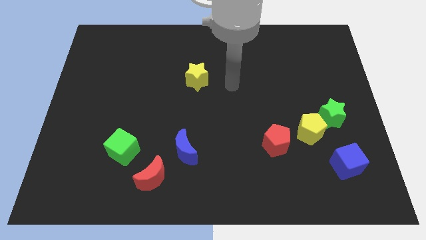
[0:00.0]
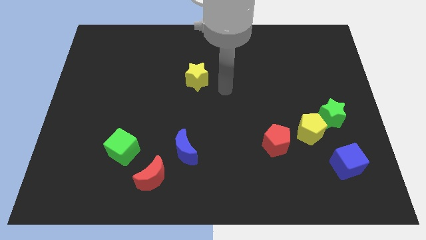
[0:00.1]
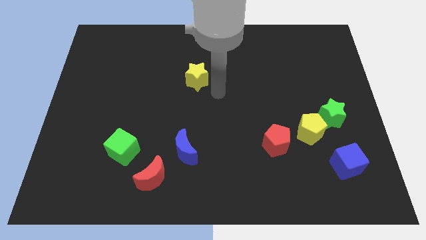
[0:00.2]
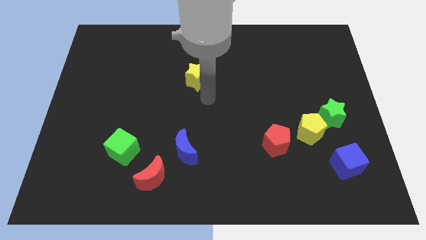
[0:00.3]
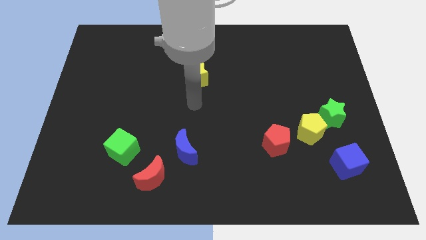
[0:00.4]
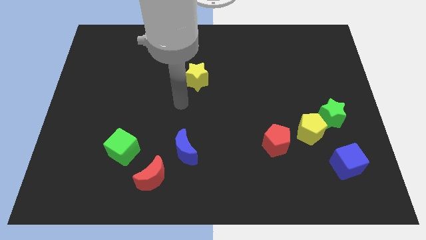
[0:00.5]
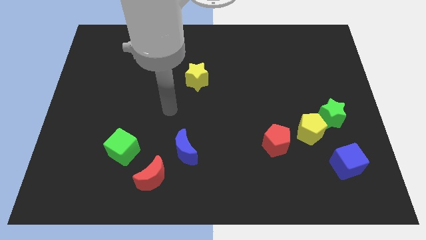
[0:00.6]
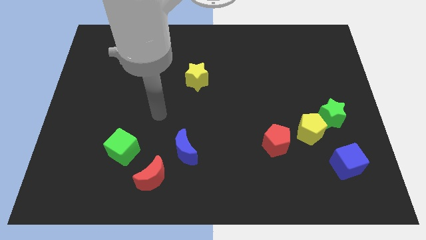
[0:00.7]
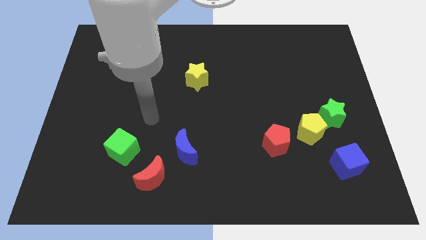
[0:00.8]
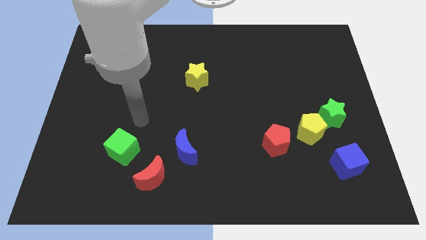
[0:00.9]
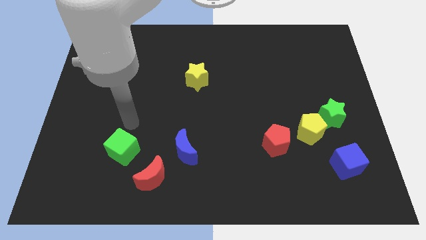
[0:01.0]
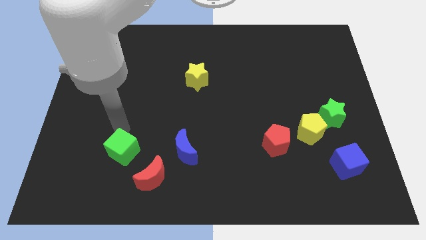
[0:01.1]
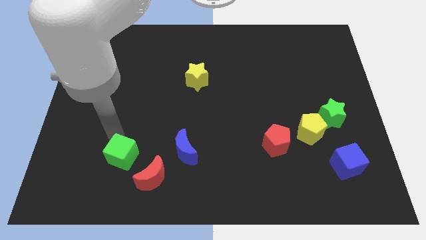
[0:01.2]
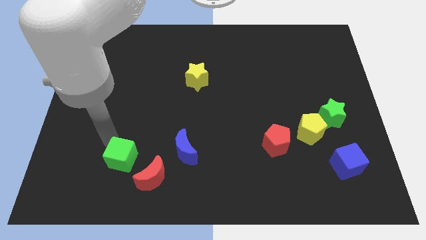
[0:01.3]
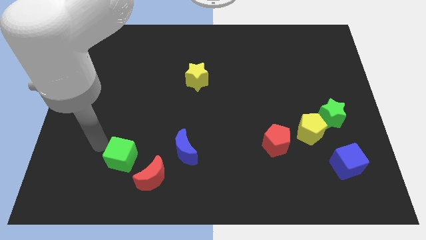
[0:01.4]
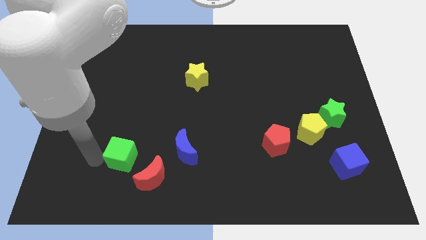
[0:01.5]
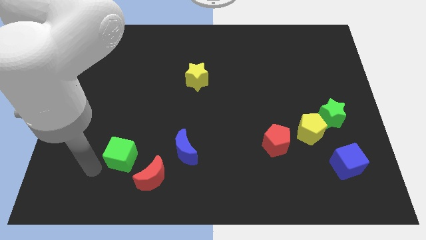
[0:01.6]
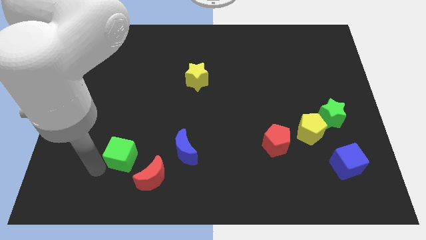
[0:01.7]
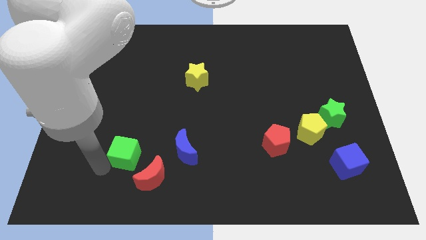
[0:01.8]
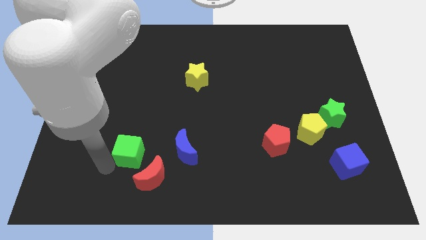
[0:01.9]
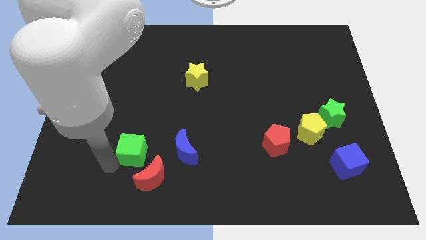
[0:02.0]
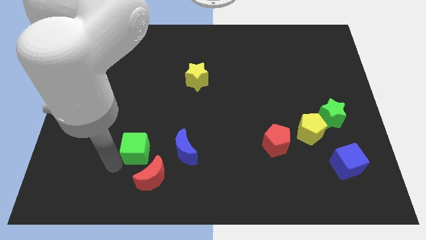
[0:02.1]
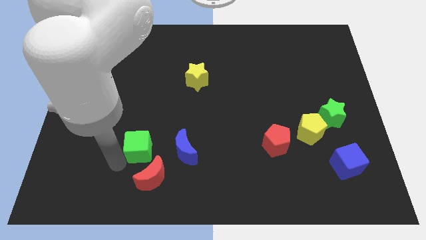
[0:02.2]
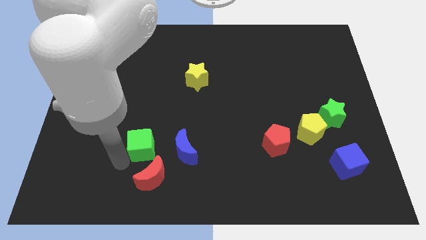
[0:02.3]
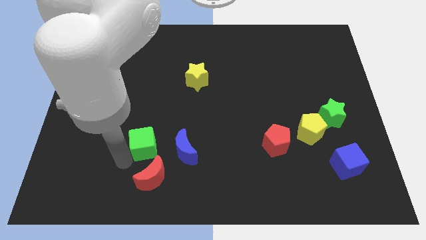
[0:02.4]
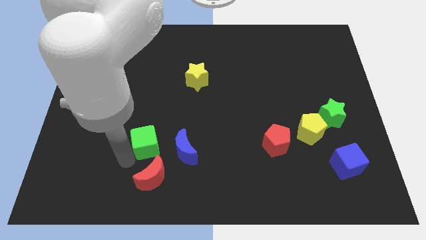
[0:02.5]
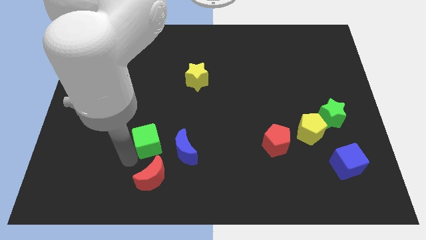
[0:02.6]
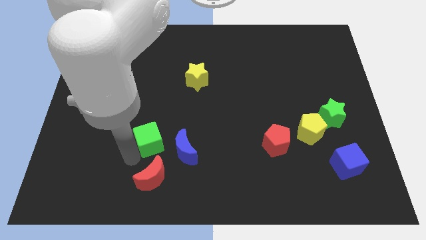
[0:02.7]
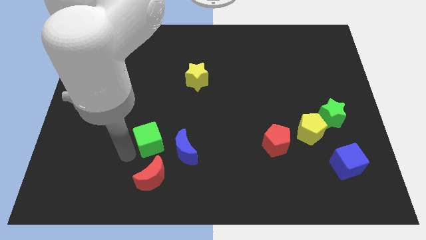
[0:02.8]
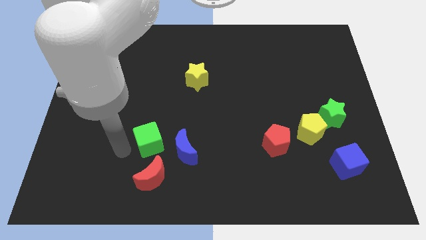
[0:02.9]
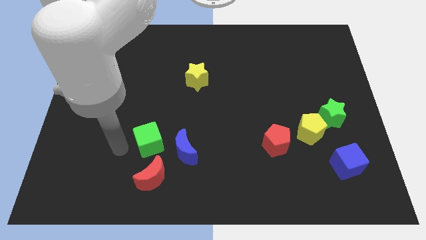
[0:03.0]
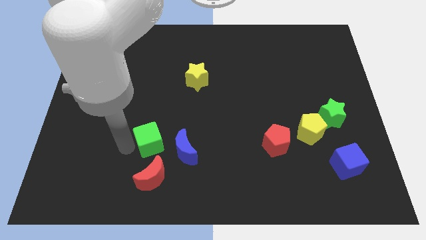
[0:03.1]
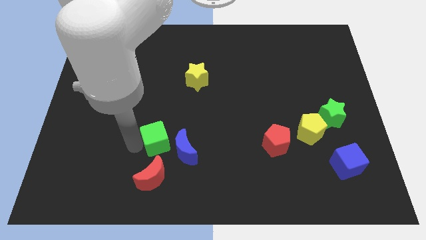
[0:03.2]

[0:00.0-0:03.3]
push the green cube a bit to the right

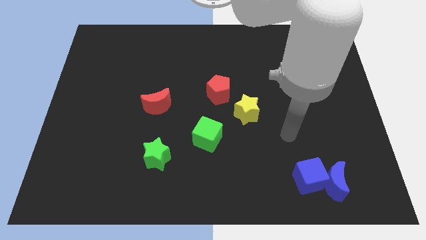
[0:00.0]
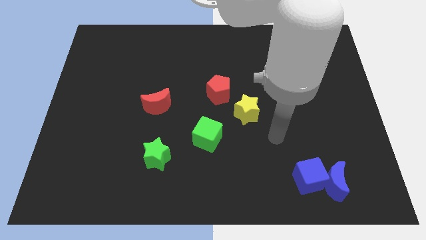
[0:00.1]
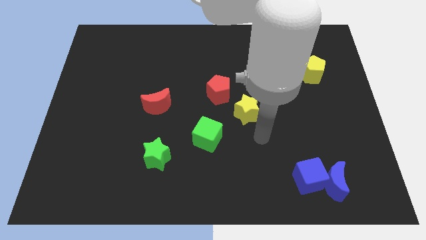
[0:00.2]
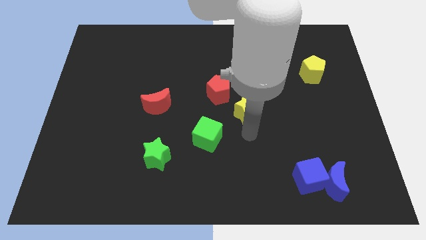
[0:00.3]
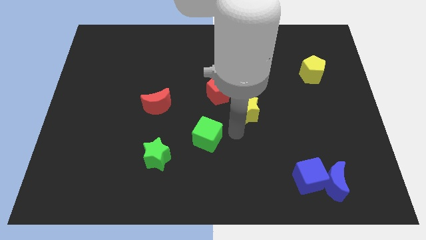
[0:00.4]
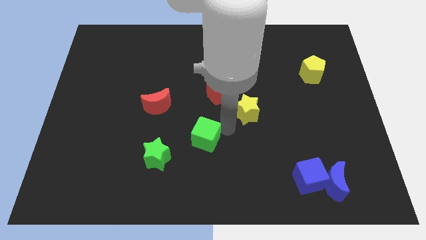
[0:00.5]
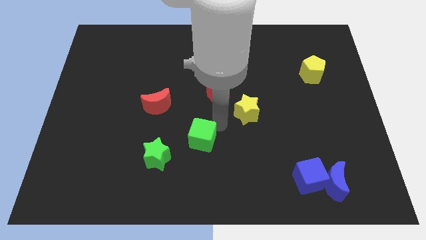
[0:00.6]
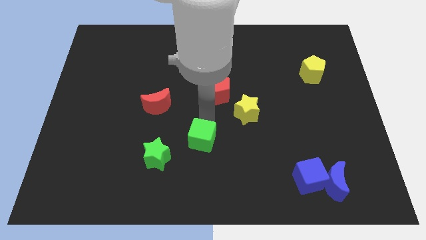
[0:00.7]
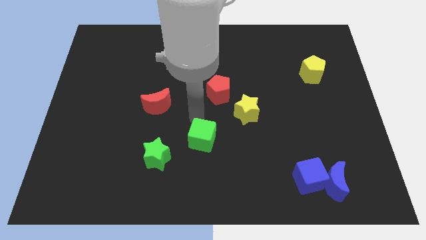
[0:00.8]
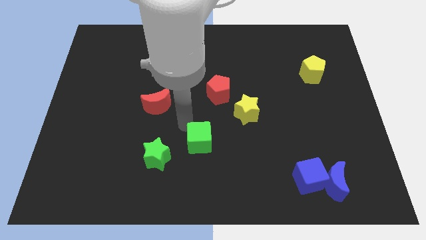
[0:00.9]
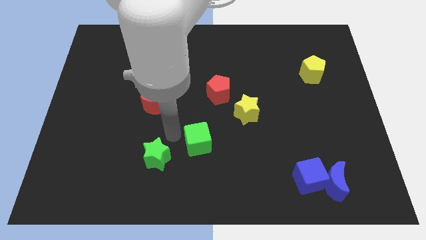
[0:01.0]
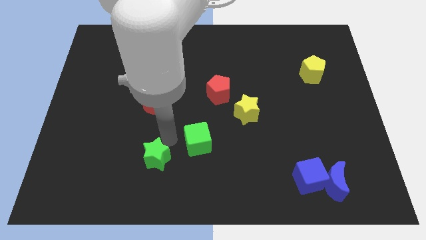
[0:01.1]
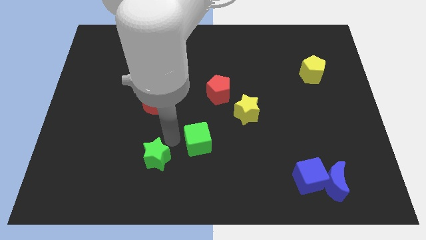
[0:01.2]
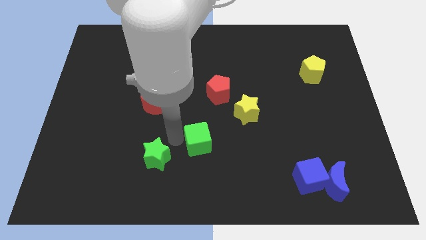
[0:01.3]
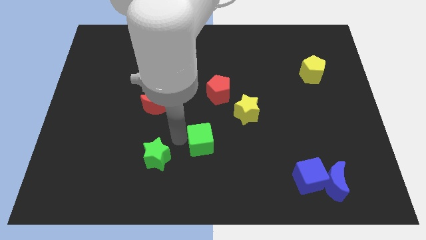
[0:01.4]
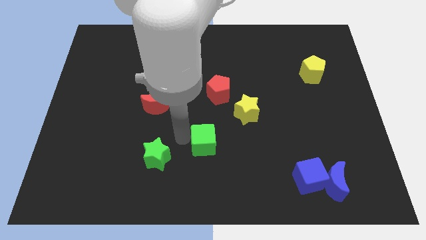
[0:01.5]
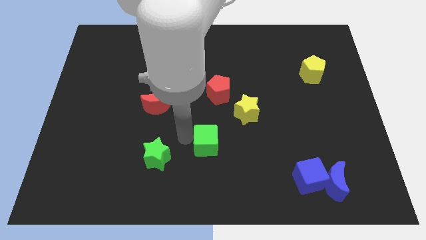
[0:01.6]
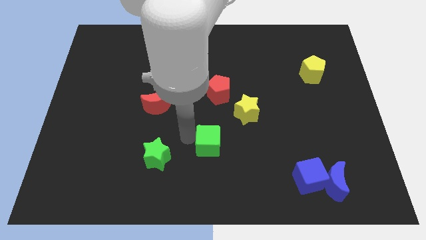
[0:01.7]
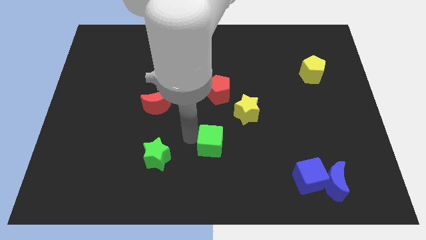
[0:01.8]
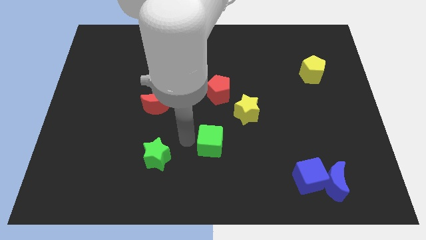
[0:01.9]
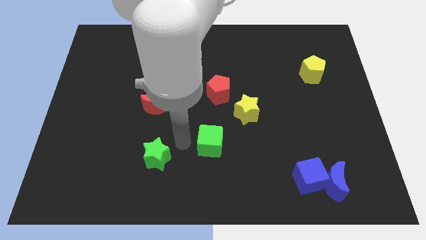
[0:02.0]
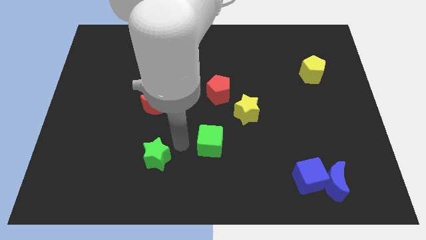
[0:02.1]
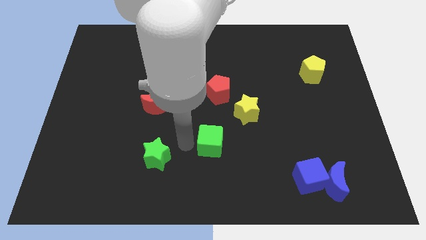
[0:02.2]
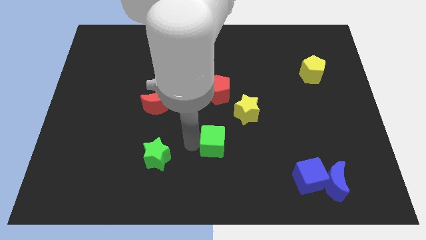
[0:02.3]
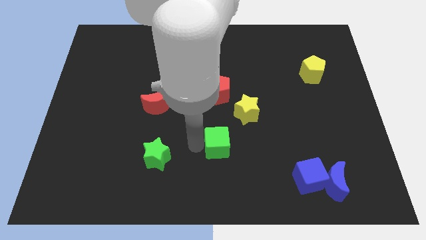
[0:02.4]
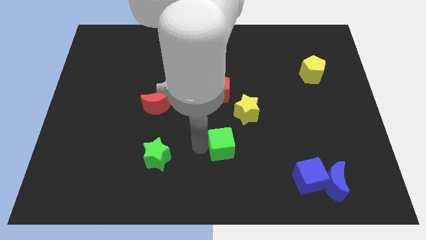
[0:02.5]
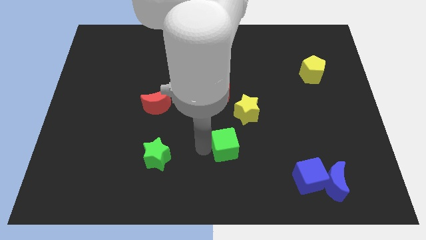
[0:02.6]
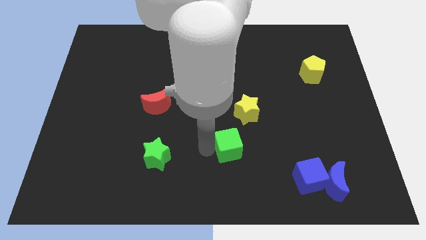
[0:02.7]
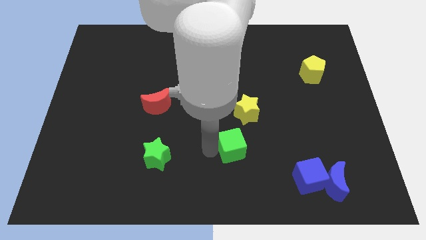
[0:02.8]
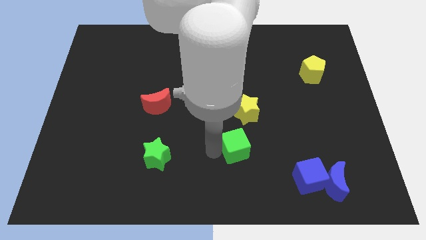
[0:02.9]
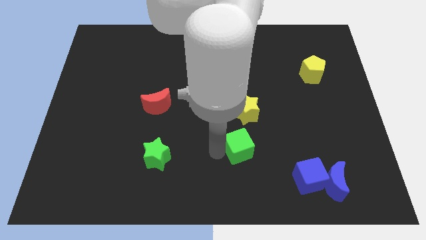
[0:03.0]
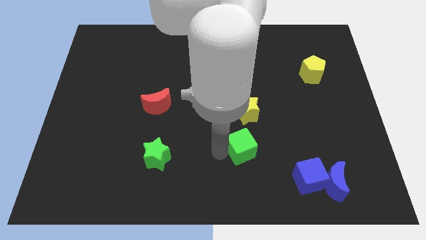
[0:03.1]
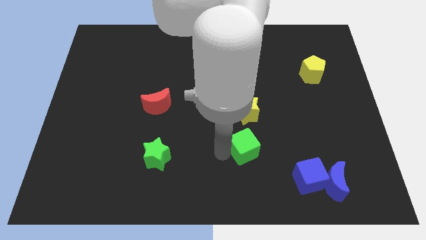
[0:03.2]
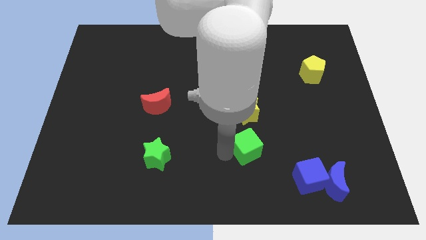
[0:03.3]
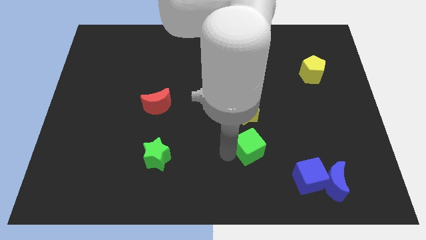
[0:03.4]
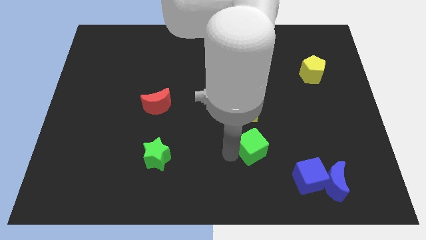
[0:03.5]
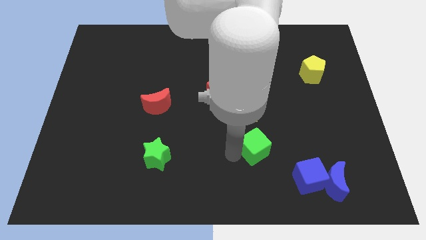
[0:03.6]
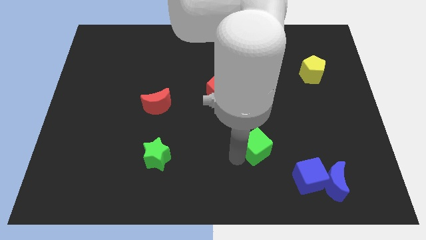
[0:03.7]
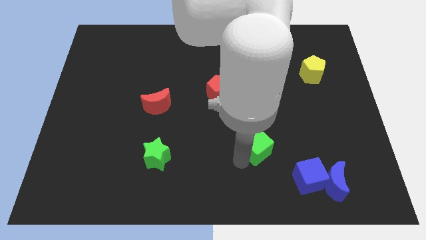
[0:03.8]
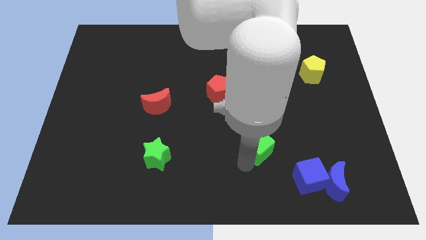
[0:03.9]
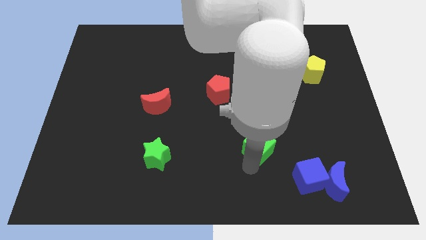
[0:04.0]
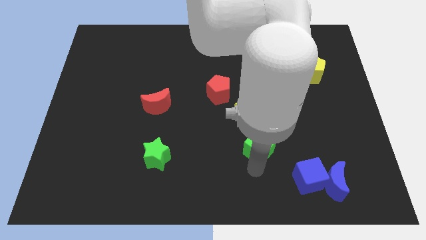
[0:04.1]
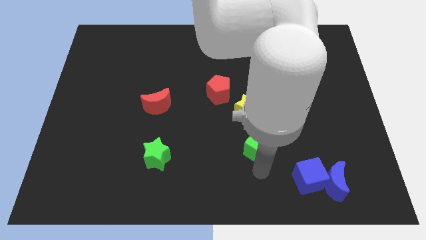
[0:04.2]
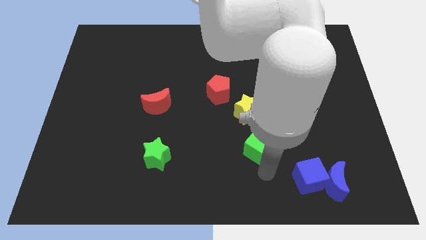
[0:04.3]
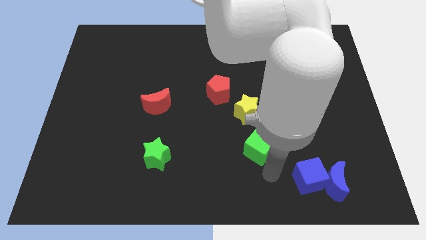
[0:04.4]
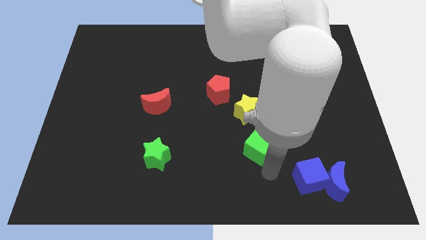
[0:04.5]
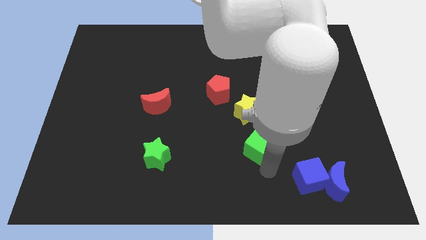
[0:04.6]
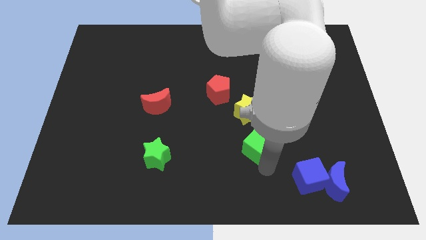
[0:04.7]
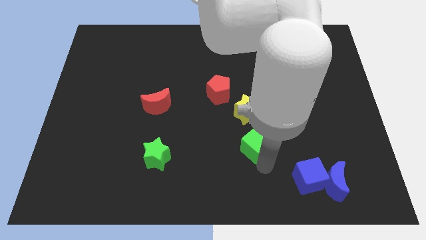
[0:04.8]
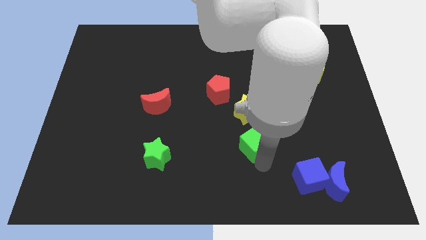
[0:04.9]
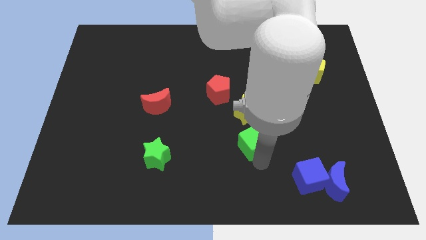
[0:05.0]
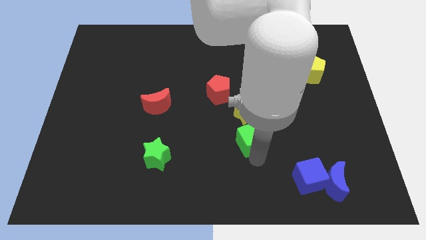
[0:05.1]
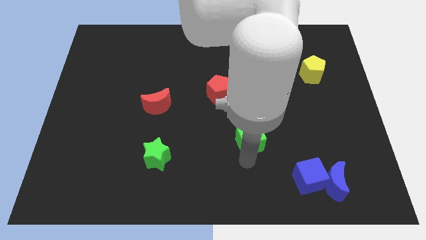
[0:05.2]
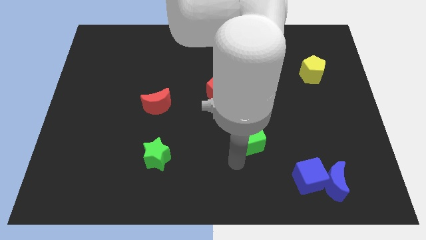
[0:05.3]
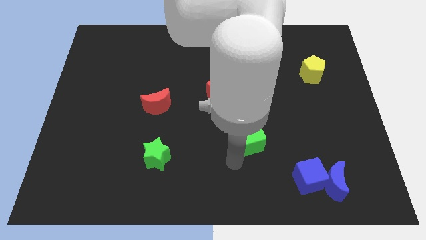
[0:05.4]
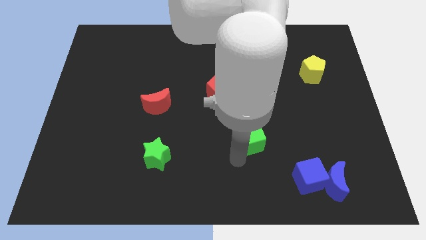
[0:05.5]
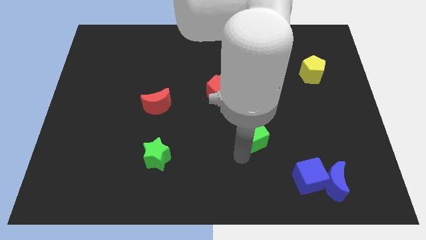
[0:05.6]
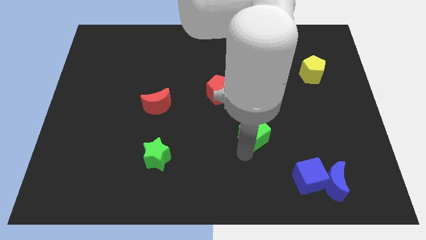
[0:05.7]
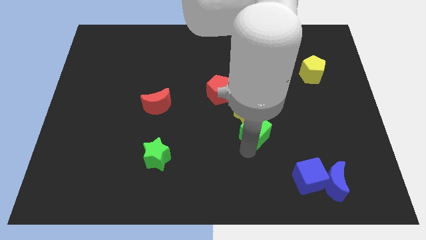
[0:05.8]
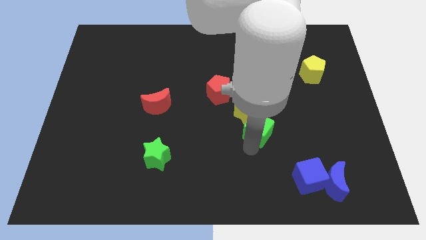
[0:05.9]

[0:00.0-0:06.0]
slide the green cube up and to the right diagonally a bit
